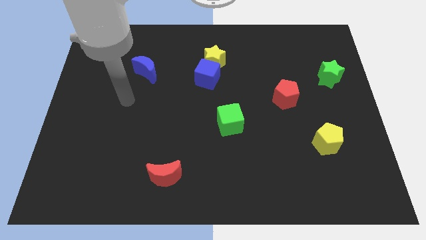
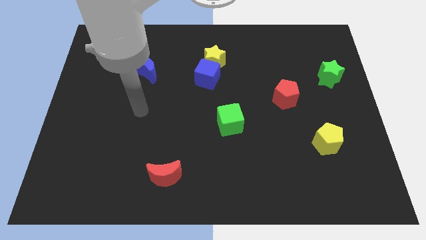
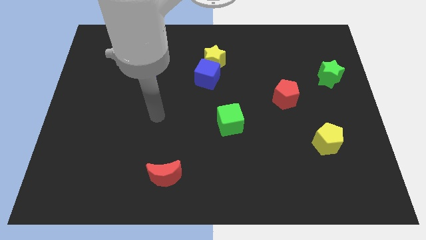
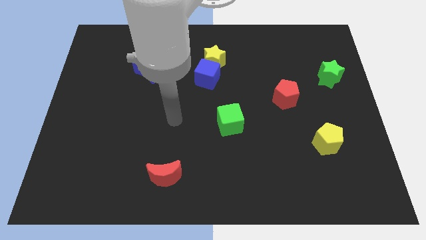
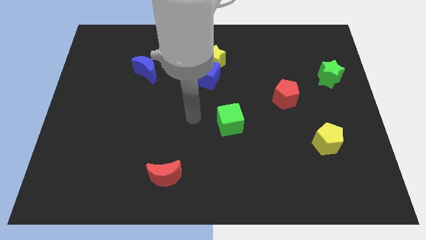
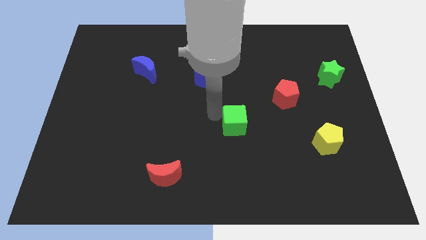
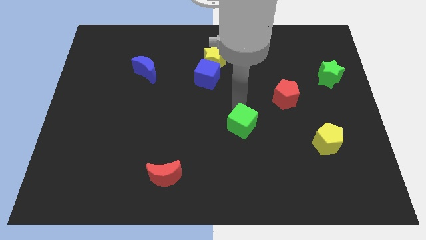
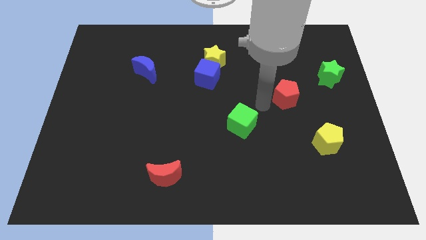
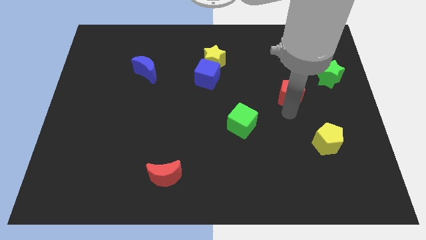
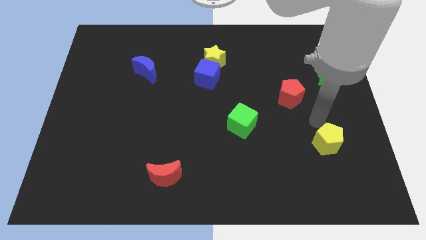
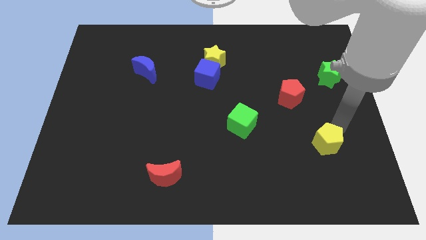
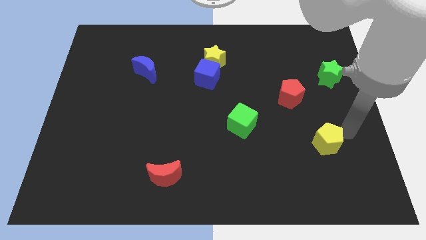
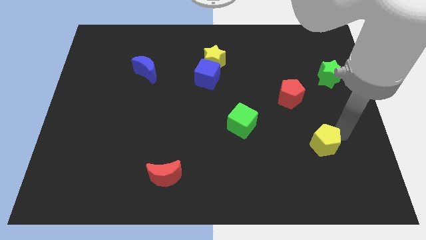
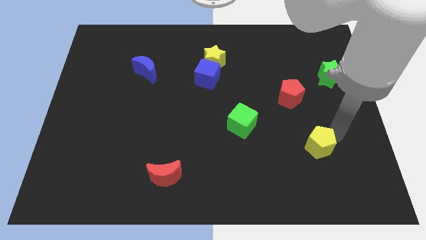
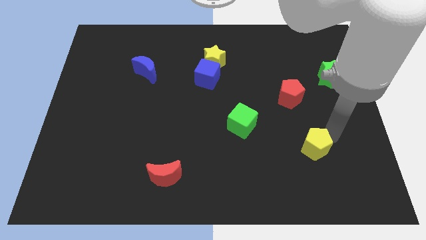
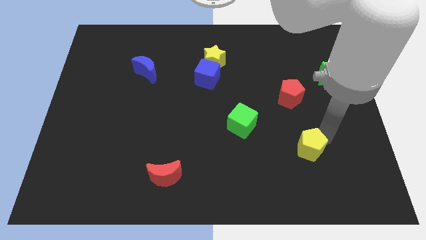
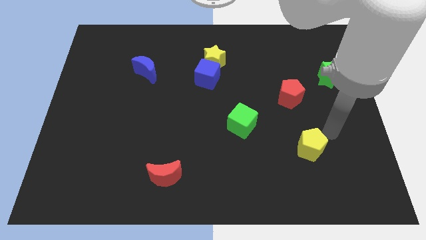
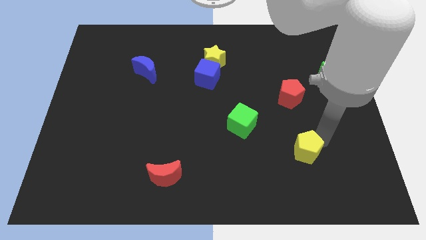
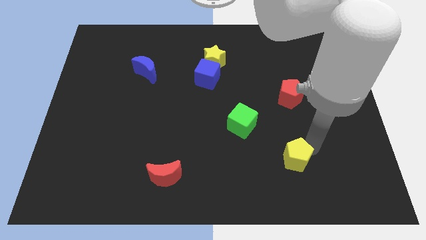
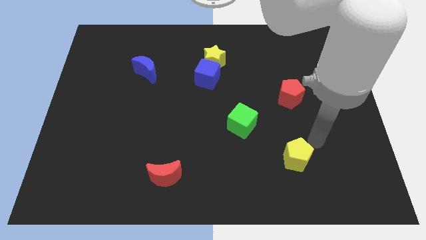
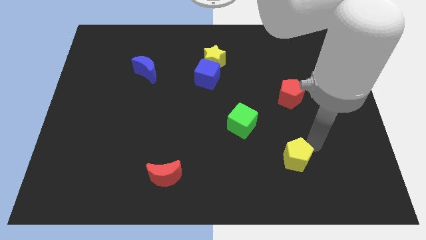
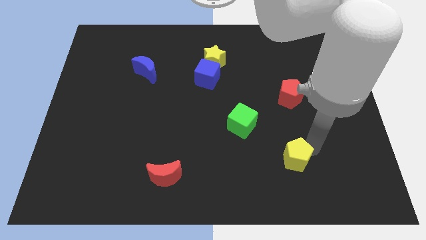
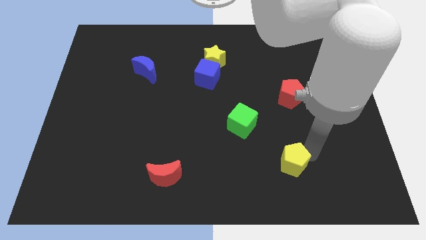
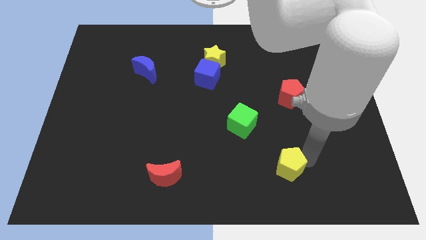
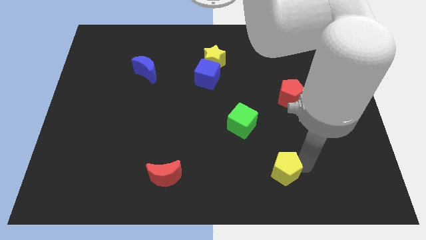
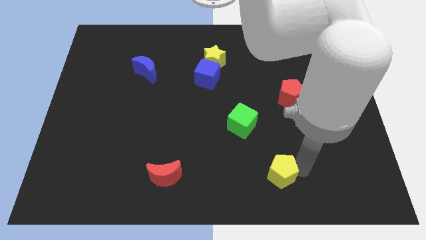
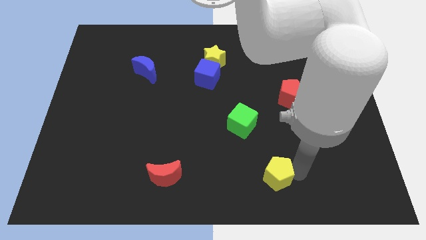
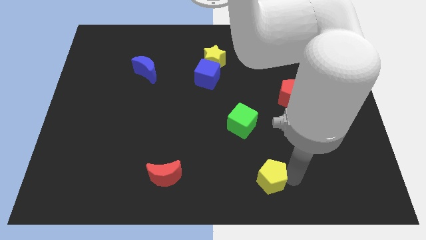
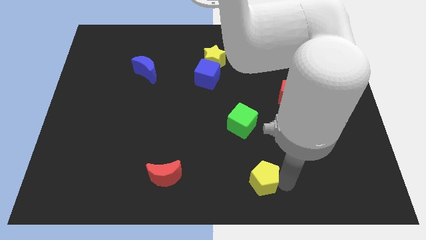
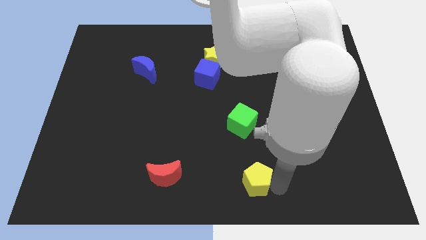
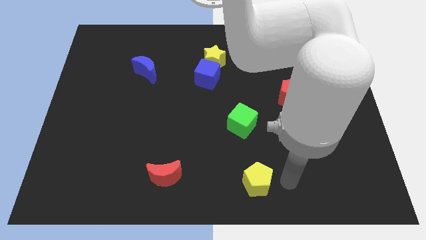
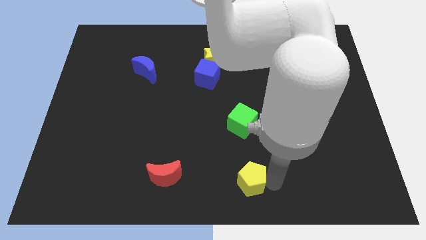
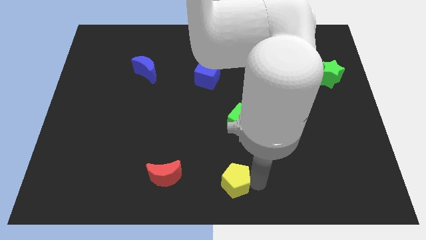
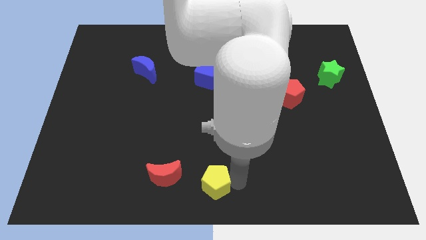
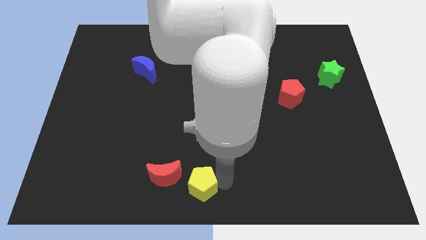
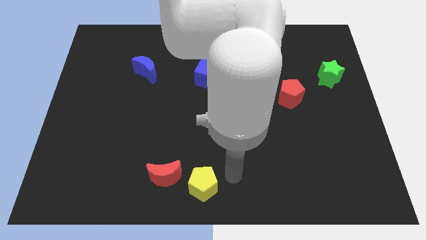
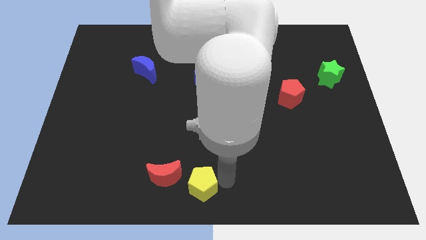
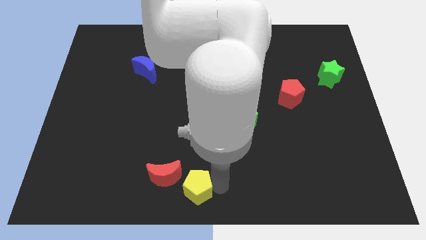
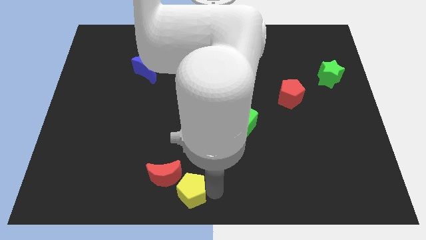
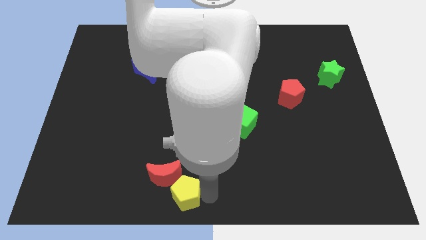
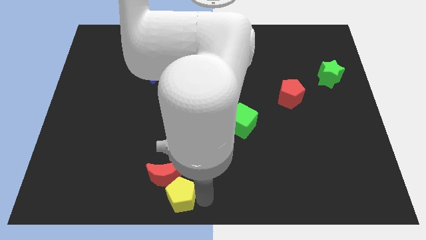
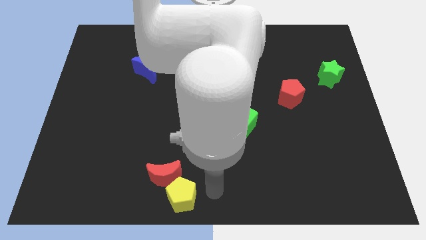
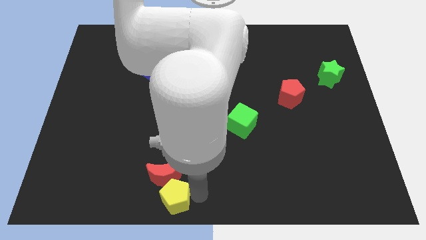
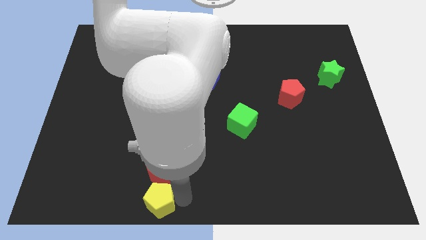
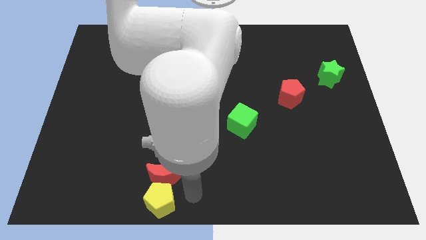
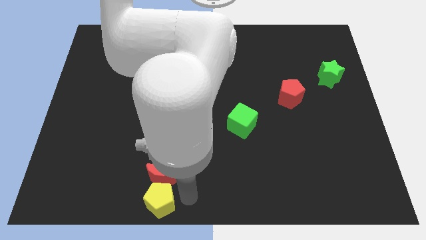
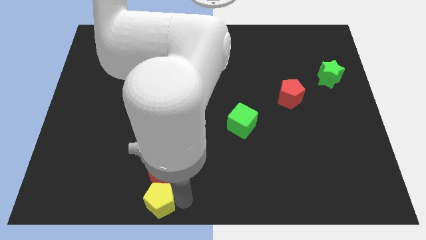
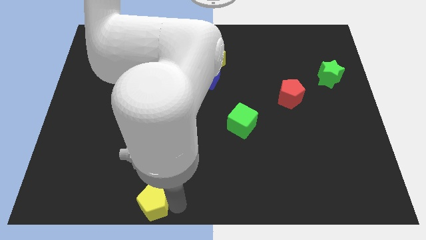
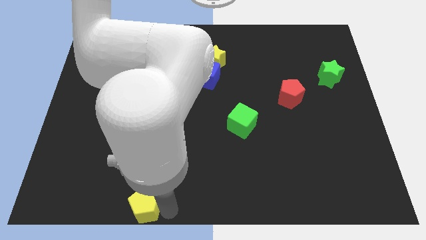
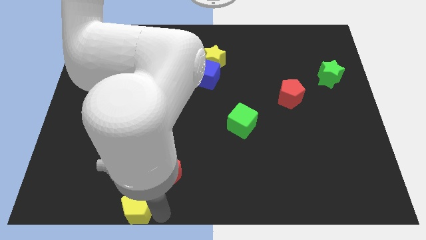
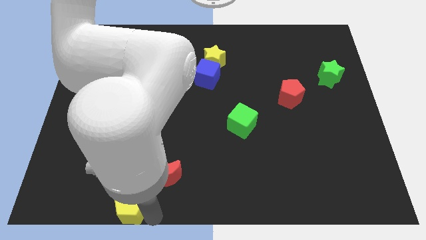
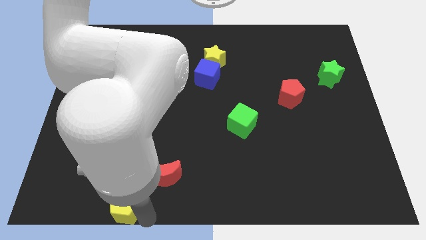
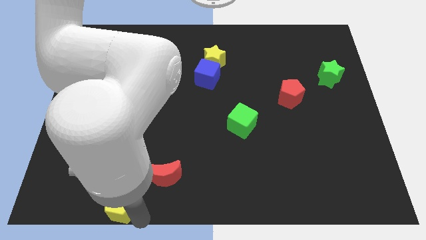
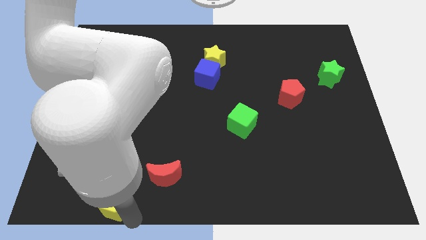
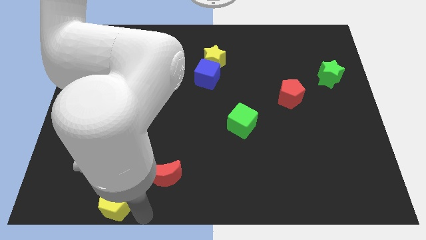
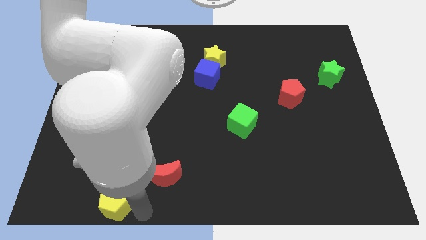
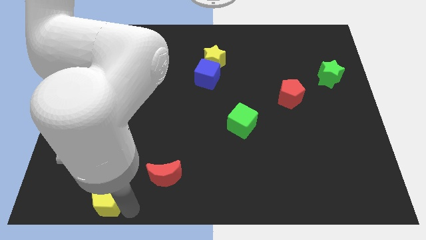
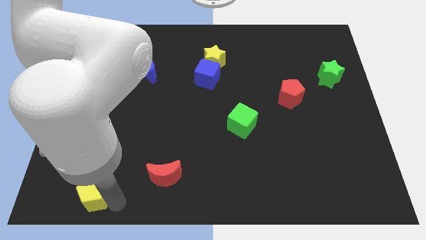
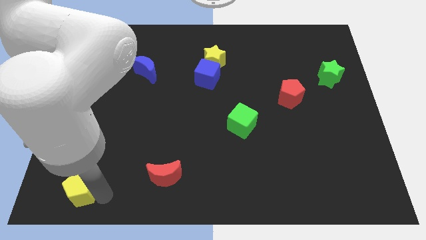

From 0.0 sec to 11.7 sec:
move the yellow pentagon to the bottom left
